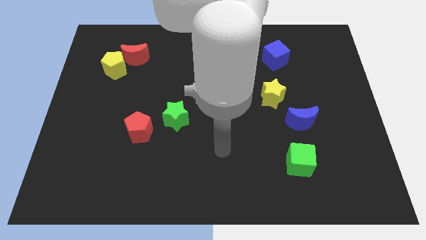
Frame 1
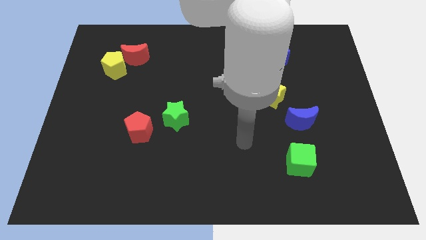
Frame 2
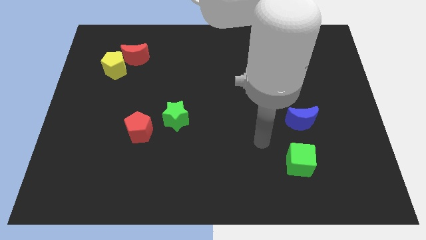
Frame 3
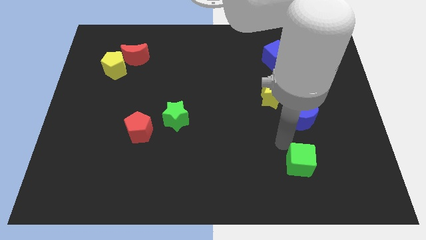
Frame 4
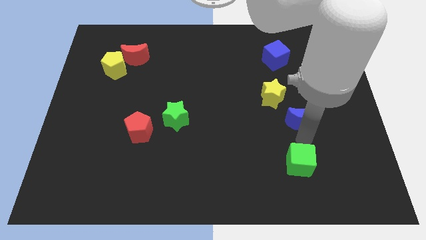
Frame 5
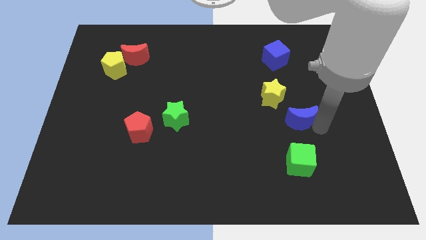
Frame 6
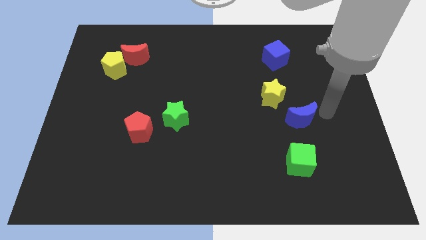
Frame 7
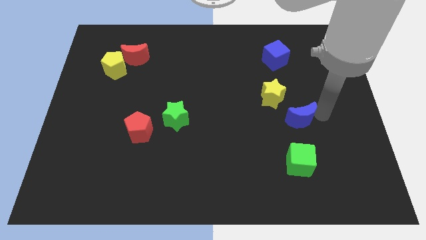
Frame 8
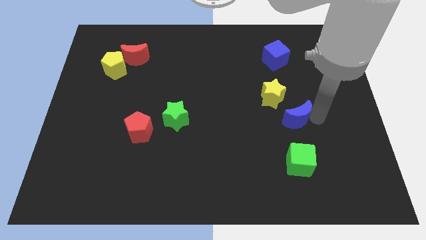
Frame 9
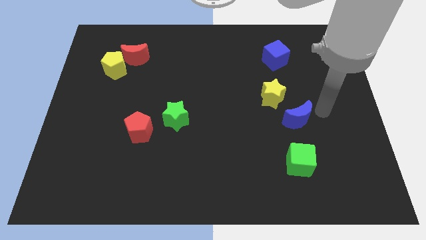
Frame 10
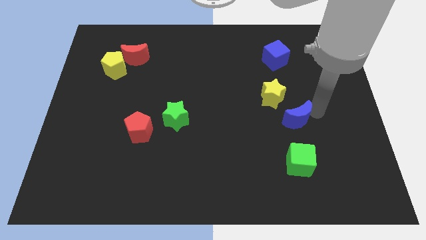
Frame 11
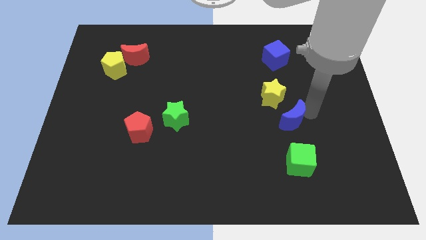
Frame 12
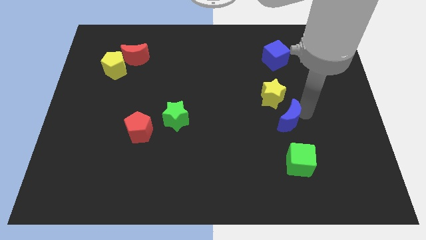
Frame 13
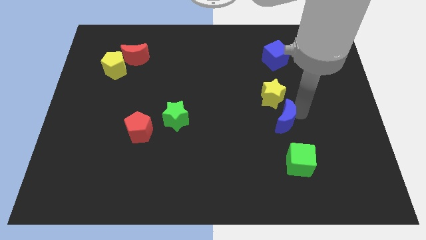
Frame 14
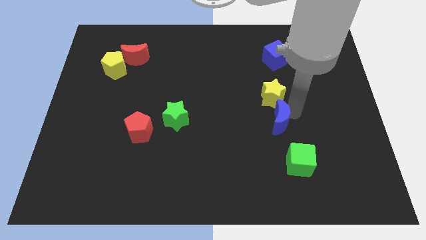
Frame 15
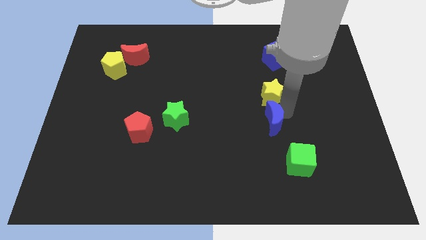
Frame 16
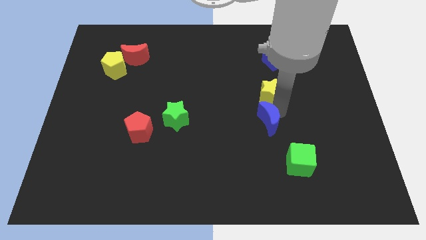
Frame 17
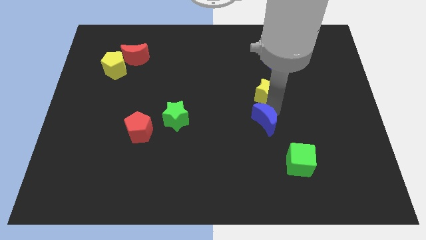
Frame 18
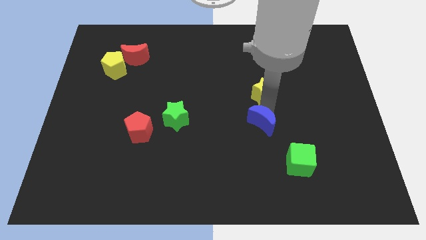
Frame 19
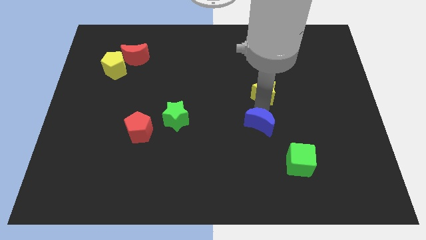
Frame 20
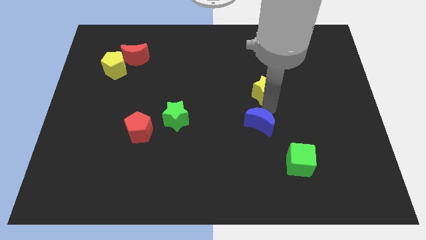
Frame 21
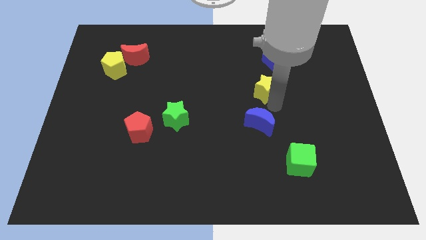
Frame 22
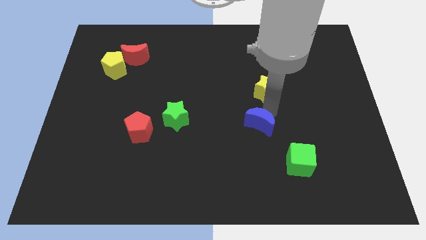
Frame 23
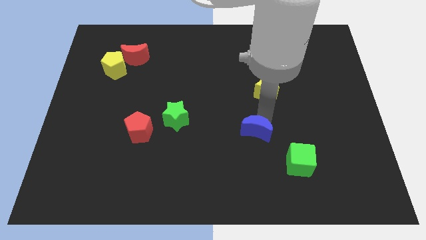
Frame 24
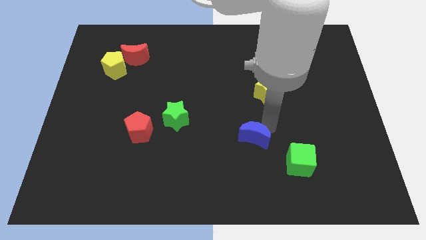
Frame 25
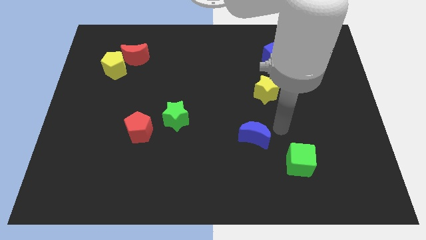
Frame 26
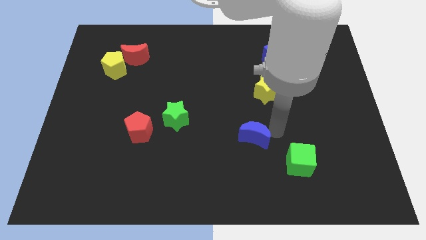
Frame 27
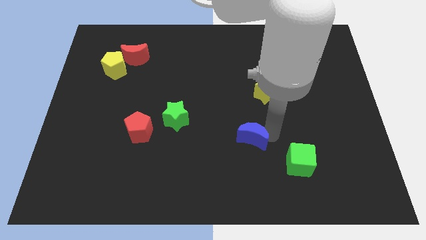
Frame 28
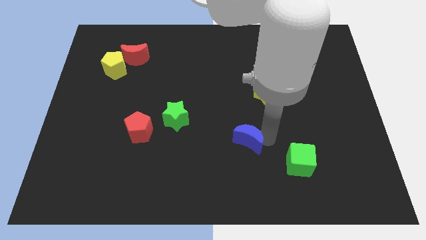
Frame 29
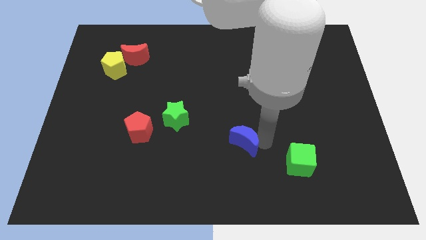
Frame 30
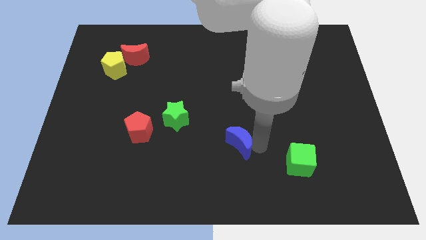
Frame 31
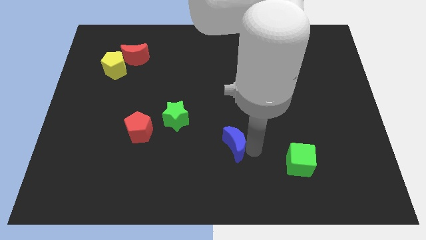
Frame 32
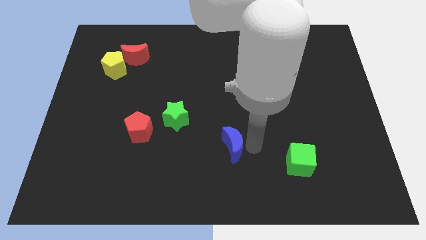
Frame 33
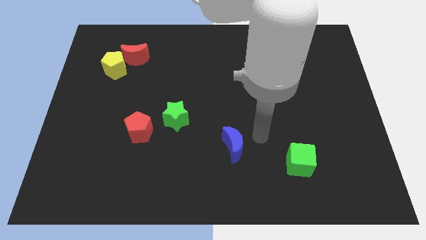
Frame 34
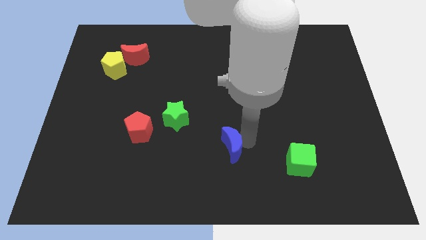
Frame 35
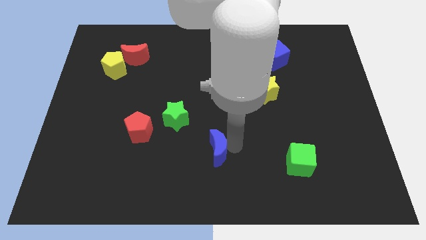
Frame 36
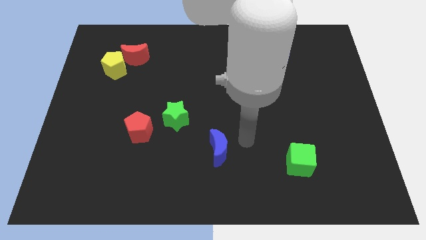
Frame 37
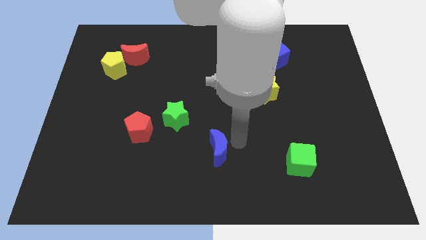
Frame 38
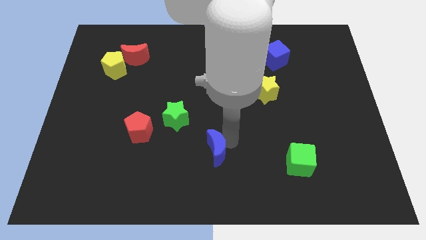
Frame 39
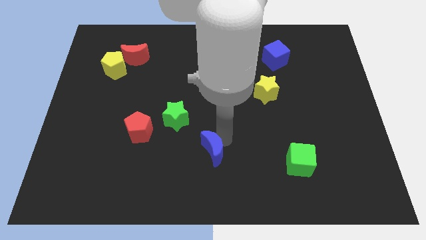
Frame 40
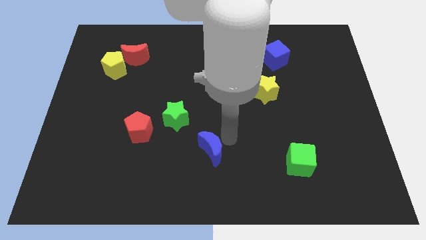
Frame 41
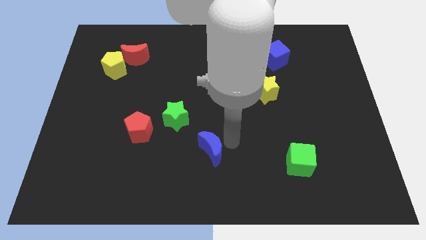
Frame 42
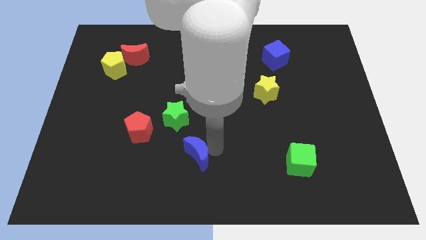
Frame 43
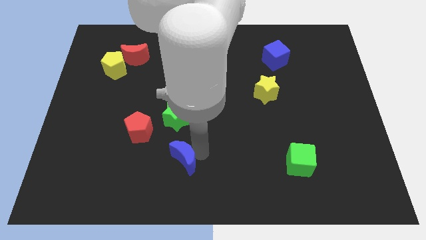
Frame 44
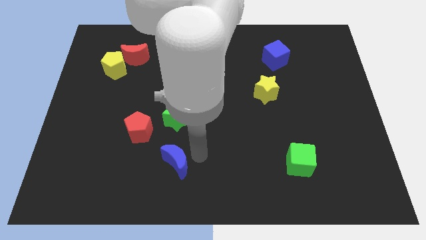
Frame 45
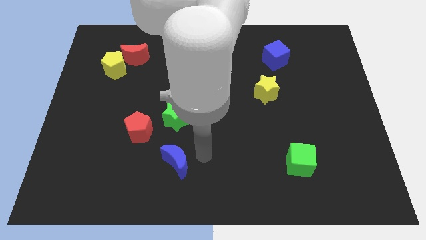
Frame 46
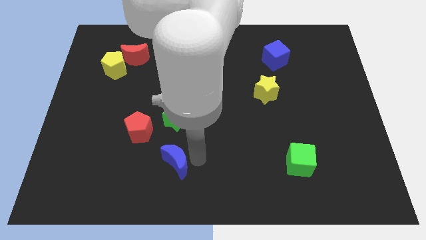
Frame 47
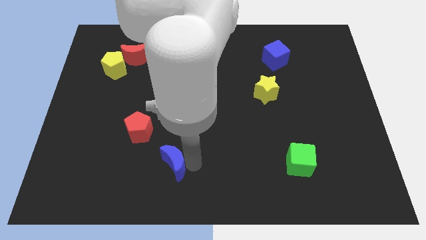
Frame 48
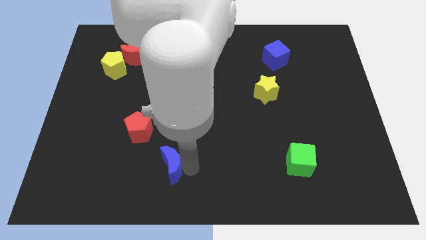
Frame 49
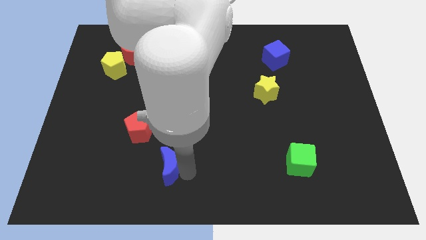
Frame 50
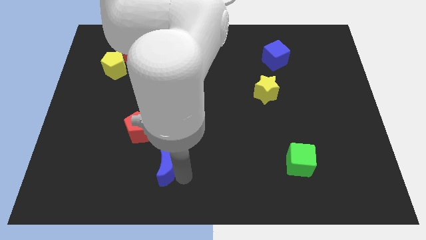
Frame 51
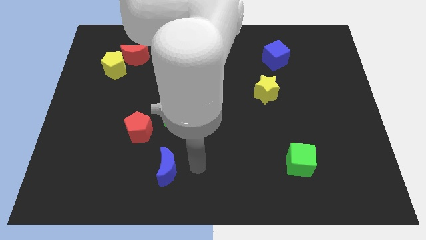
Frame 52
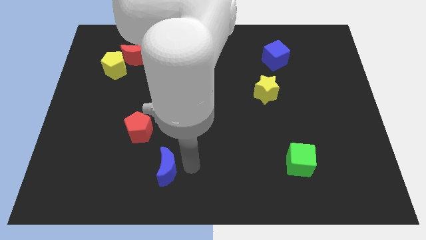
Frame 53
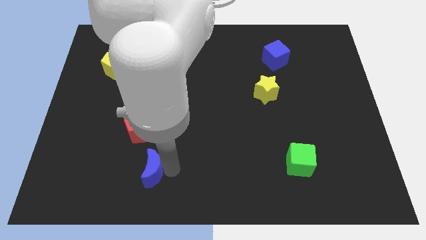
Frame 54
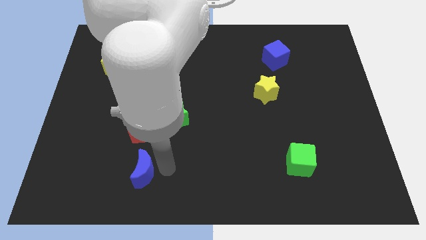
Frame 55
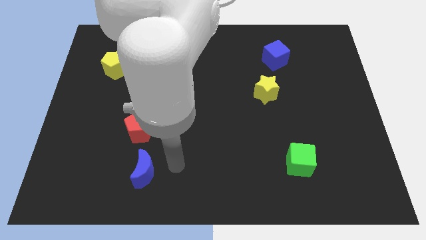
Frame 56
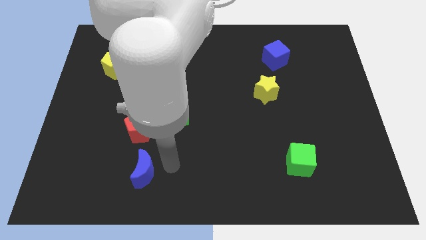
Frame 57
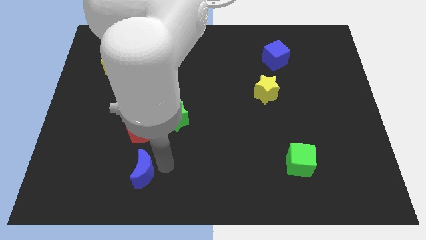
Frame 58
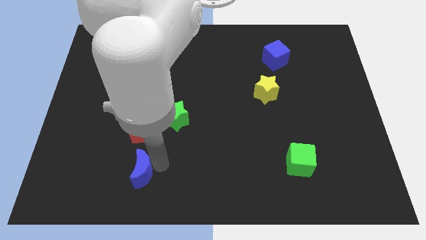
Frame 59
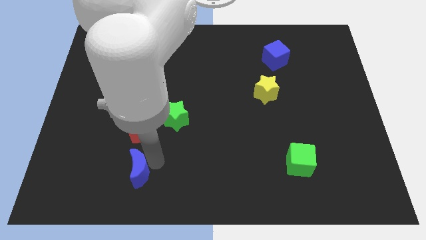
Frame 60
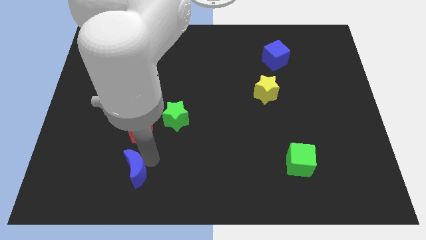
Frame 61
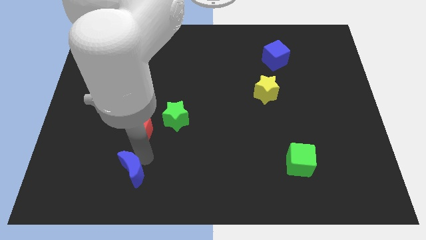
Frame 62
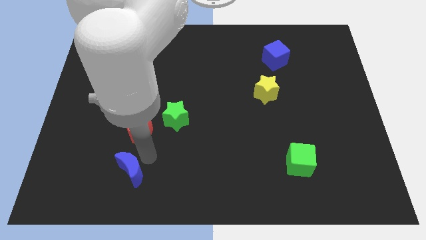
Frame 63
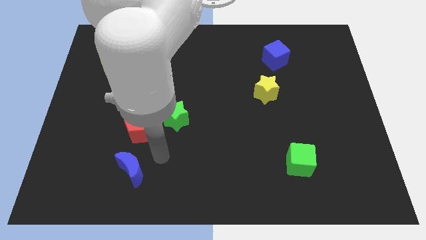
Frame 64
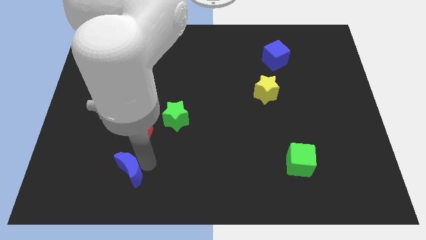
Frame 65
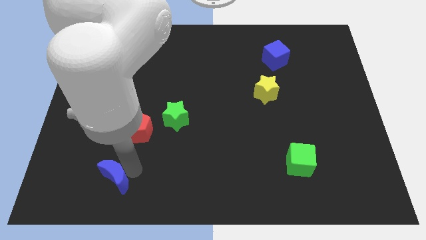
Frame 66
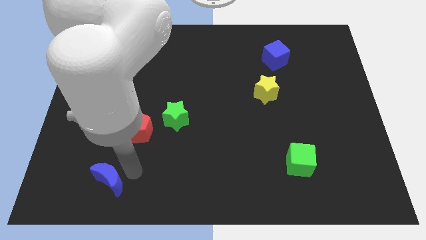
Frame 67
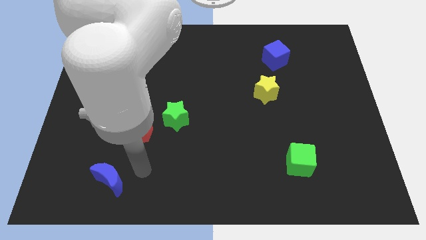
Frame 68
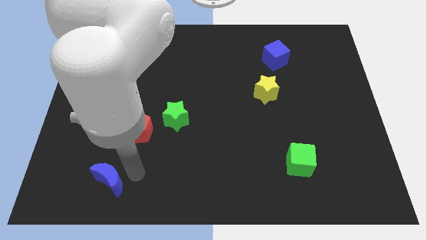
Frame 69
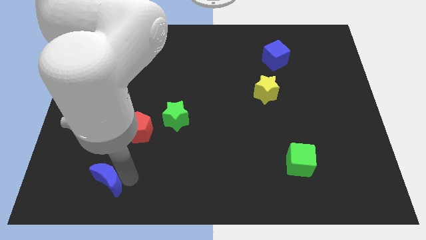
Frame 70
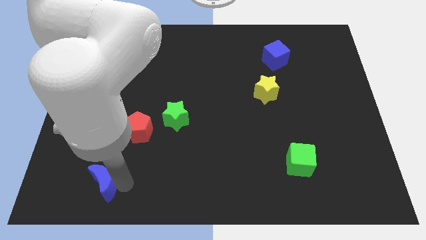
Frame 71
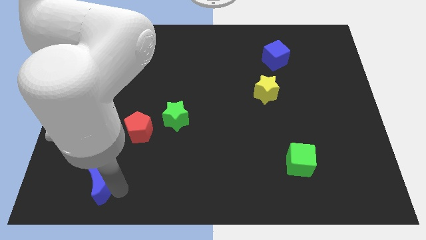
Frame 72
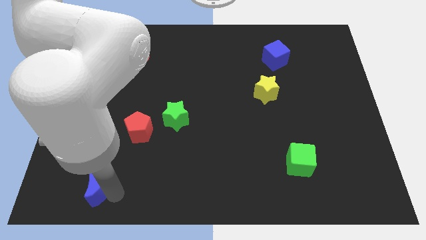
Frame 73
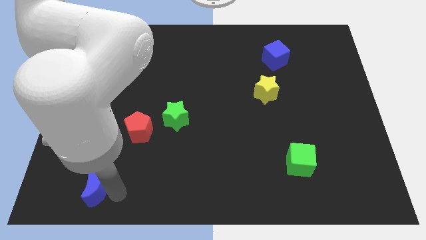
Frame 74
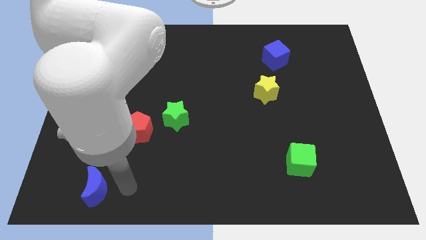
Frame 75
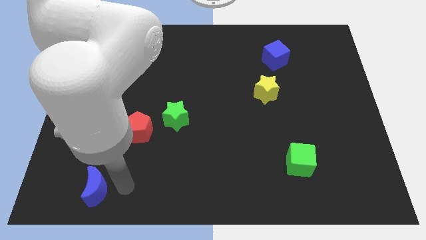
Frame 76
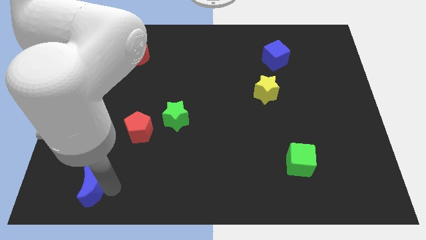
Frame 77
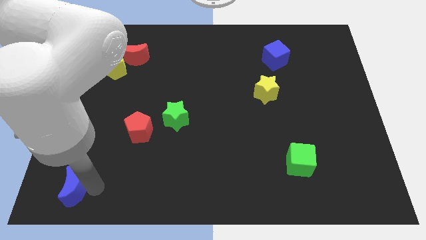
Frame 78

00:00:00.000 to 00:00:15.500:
slide the blue moon to the bottom left corner
